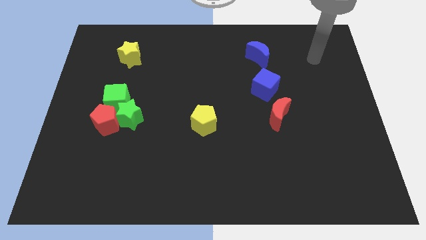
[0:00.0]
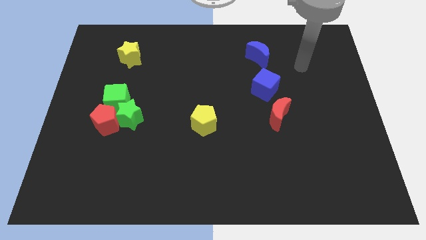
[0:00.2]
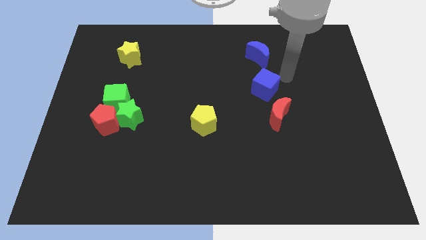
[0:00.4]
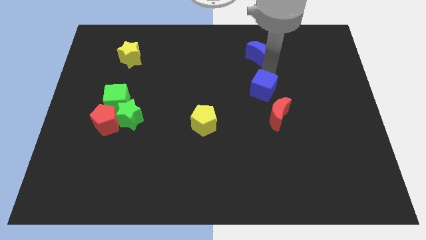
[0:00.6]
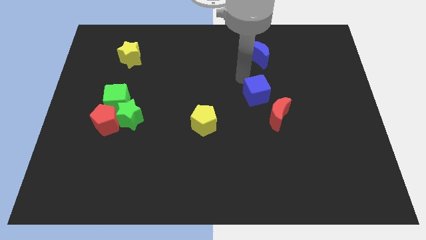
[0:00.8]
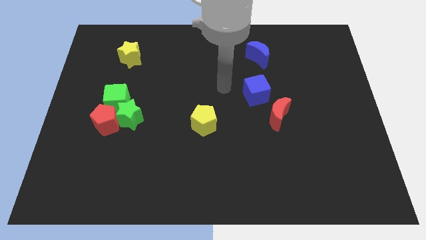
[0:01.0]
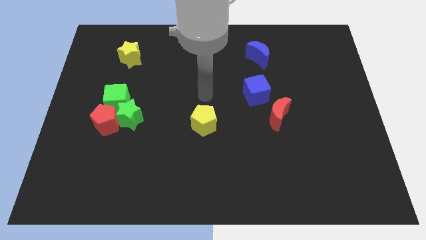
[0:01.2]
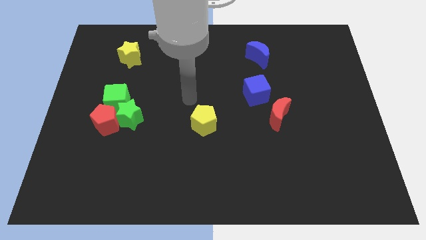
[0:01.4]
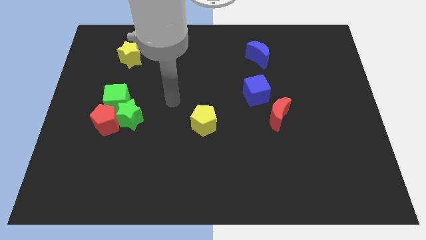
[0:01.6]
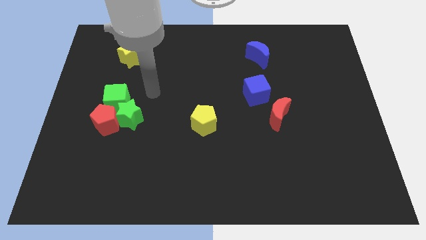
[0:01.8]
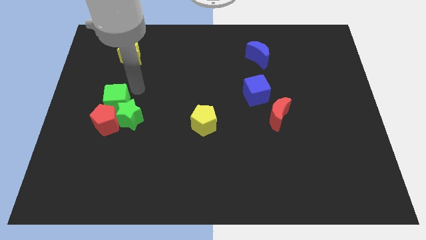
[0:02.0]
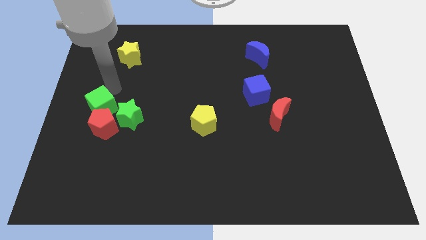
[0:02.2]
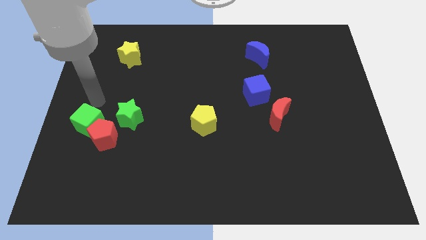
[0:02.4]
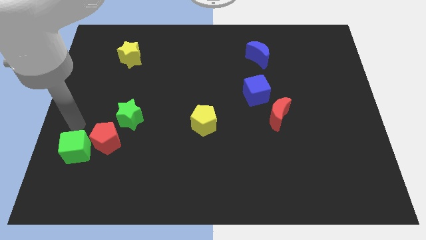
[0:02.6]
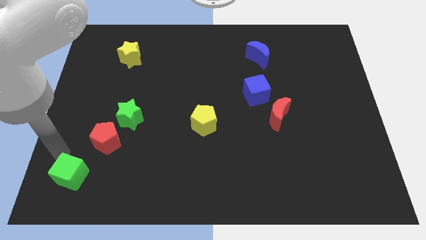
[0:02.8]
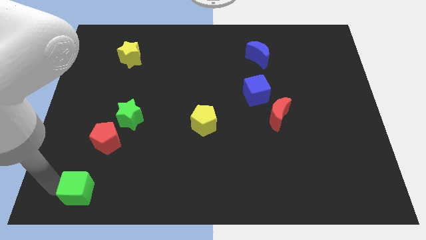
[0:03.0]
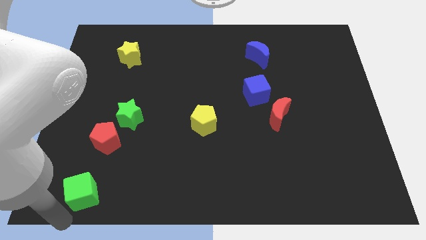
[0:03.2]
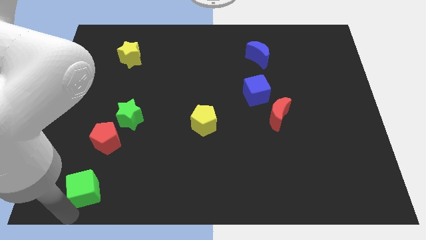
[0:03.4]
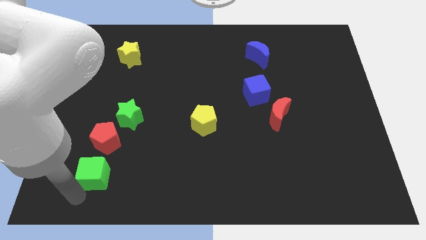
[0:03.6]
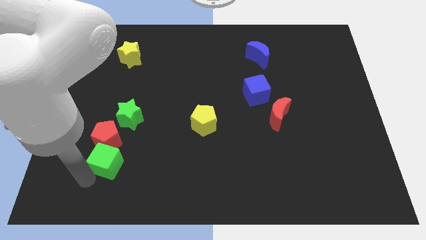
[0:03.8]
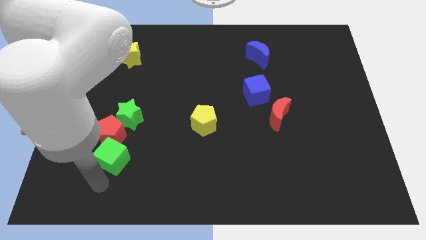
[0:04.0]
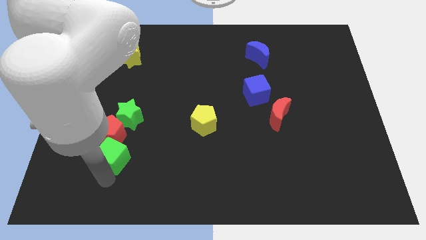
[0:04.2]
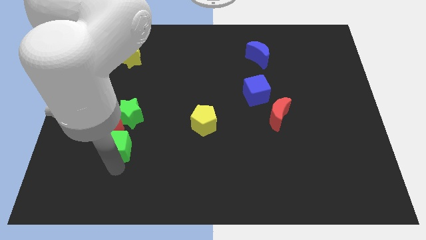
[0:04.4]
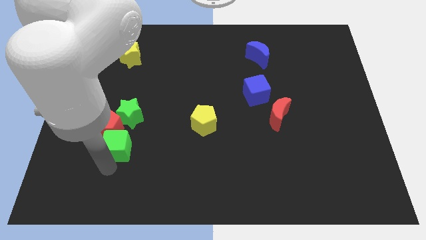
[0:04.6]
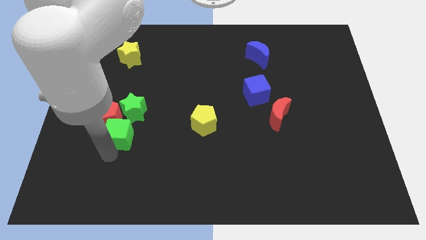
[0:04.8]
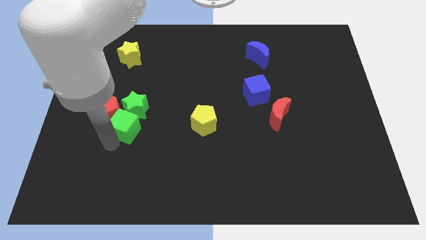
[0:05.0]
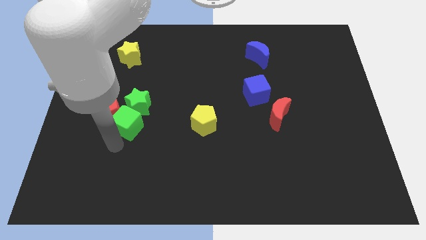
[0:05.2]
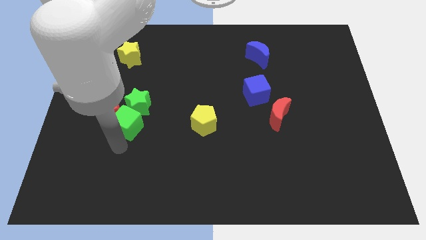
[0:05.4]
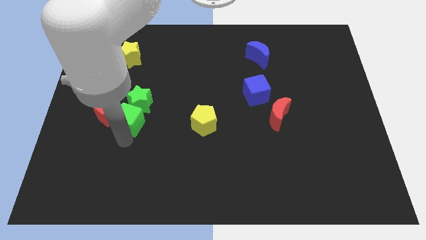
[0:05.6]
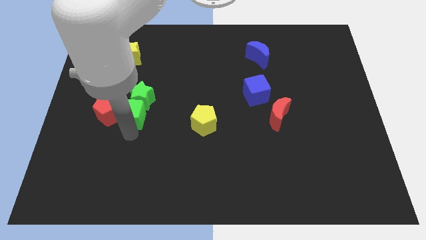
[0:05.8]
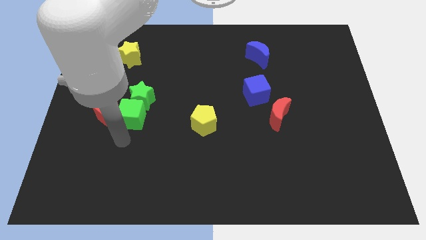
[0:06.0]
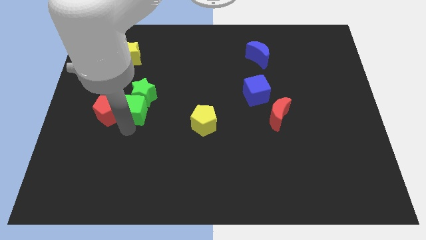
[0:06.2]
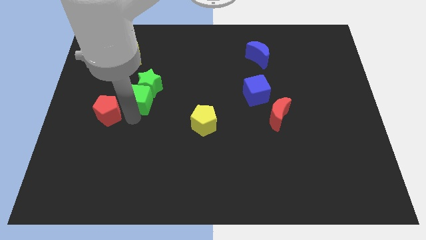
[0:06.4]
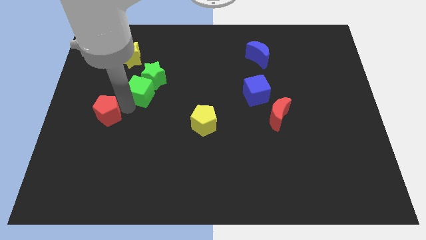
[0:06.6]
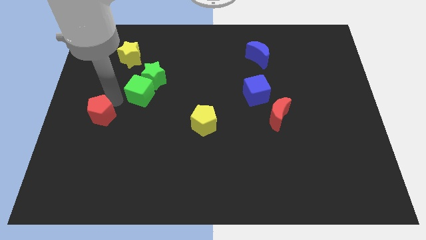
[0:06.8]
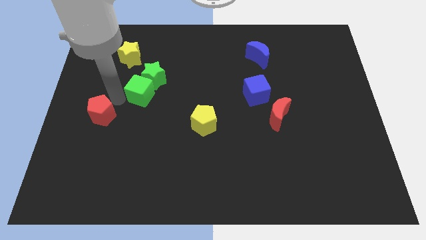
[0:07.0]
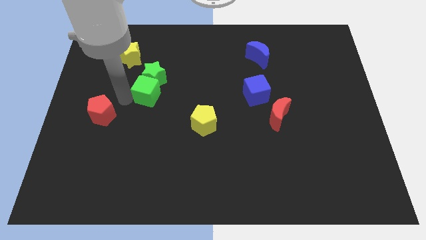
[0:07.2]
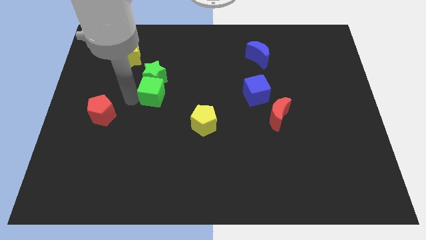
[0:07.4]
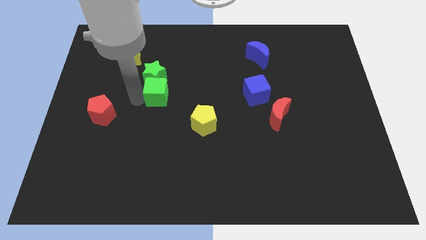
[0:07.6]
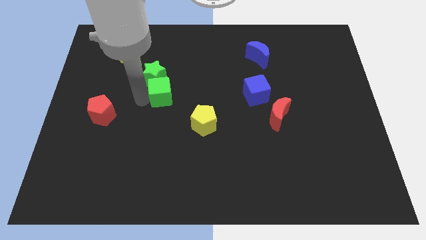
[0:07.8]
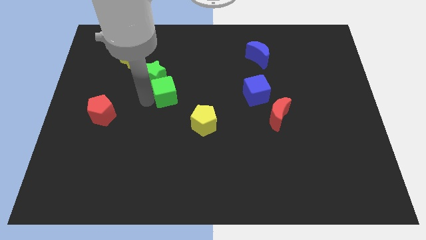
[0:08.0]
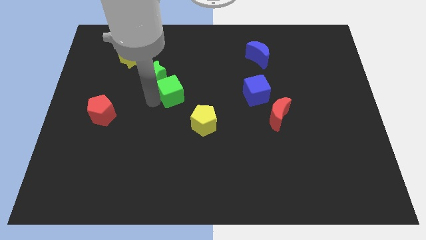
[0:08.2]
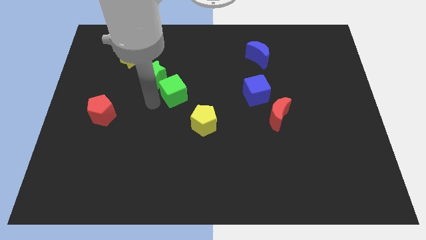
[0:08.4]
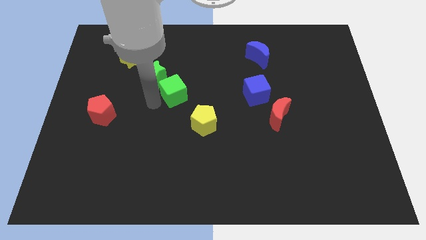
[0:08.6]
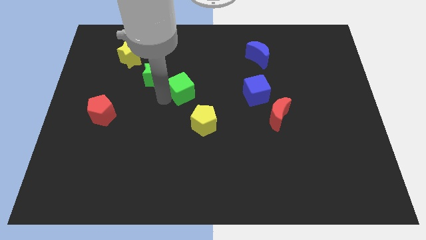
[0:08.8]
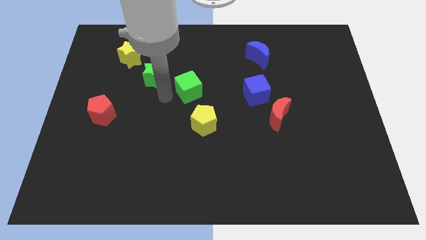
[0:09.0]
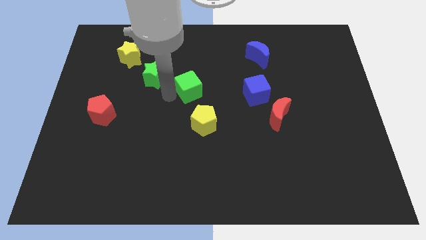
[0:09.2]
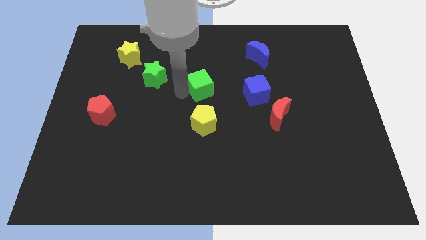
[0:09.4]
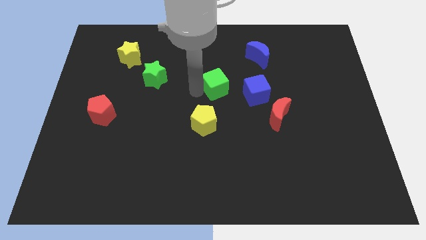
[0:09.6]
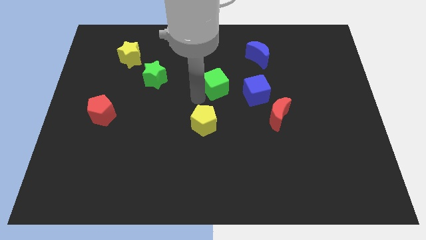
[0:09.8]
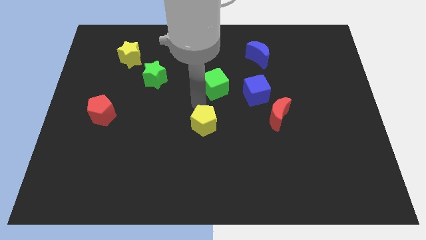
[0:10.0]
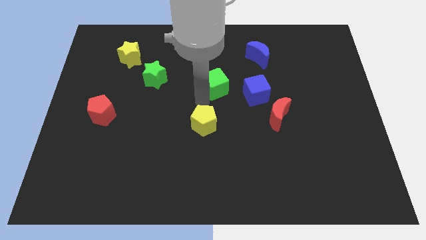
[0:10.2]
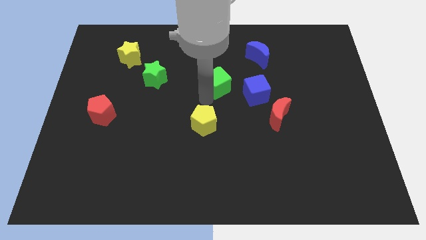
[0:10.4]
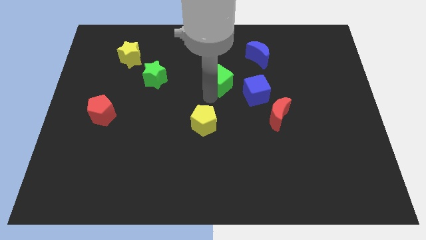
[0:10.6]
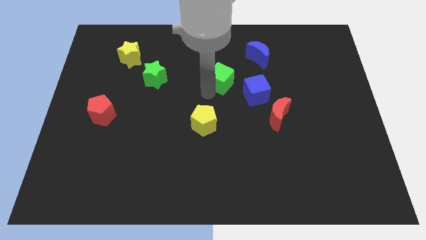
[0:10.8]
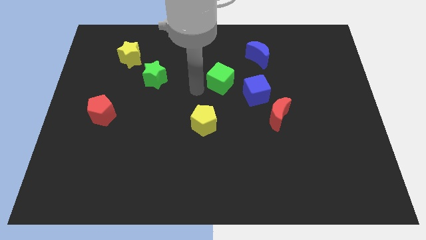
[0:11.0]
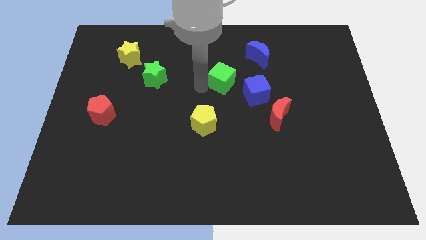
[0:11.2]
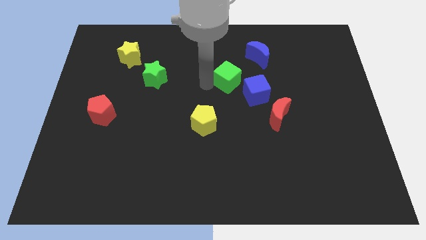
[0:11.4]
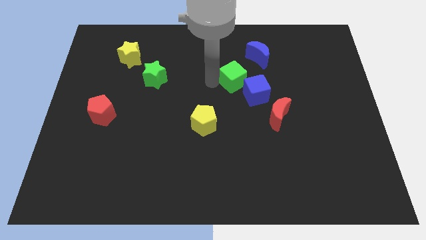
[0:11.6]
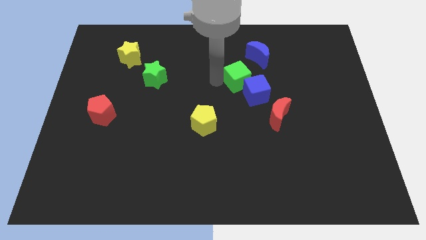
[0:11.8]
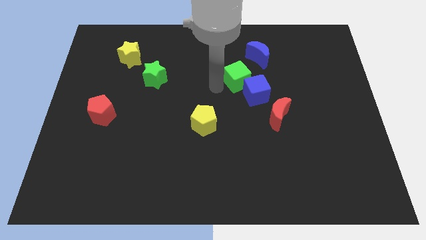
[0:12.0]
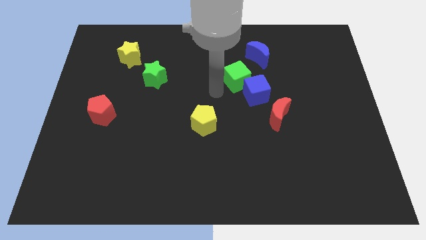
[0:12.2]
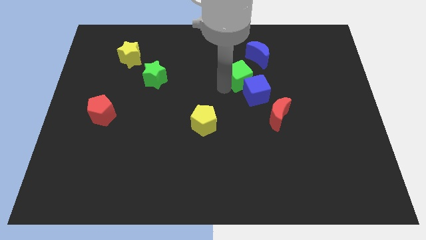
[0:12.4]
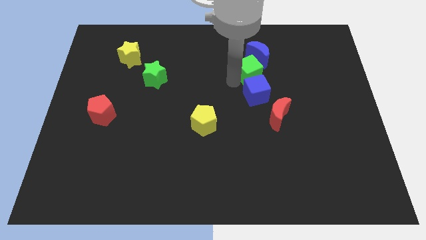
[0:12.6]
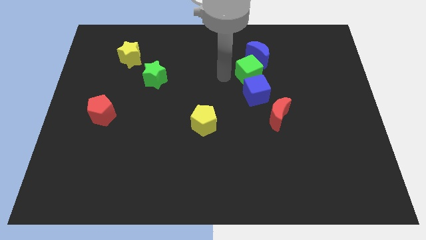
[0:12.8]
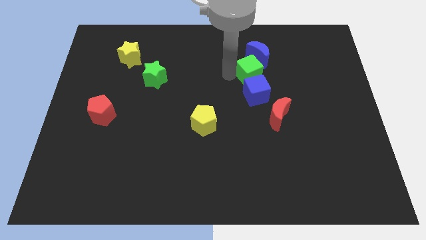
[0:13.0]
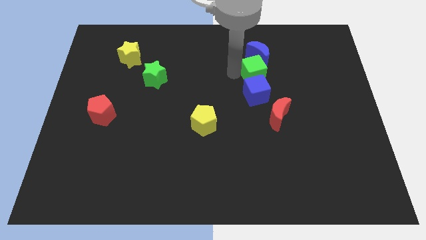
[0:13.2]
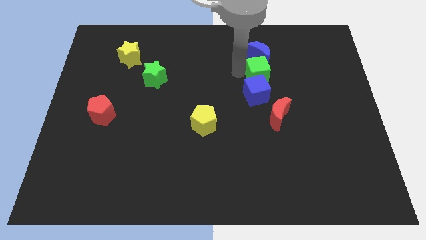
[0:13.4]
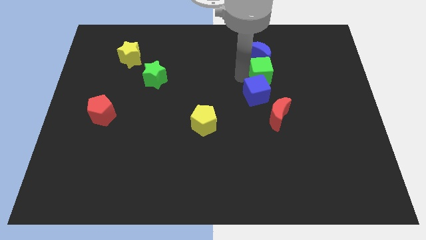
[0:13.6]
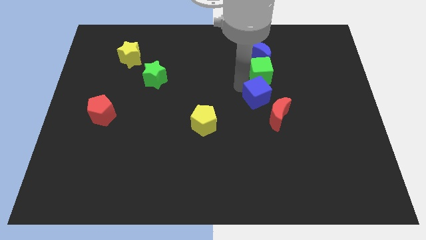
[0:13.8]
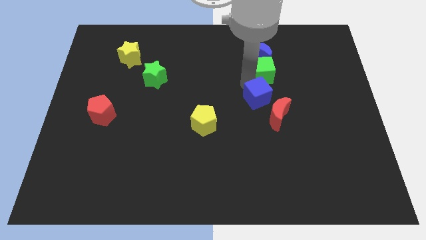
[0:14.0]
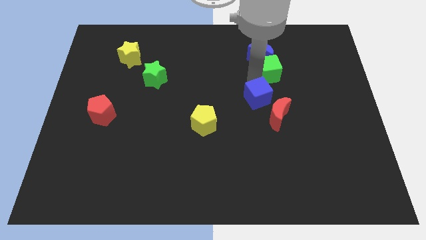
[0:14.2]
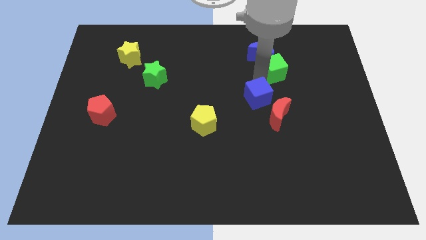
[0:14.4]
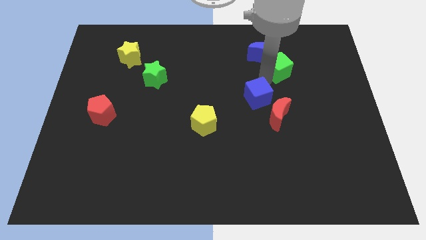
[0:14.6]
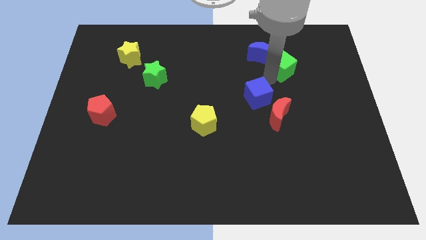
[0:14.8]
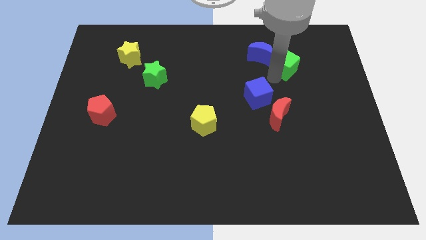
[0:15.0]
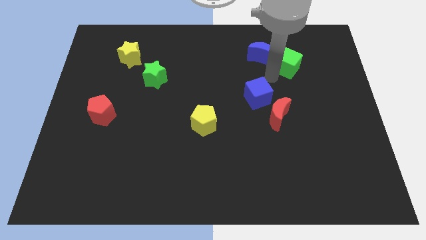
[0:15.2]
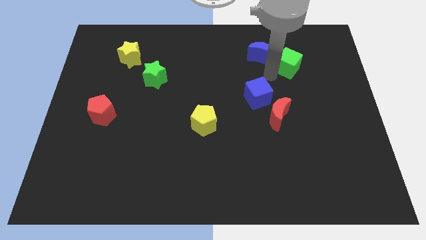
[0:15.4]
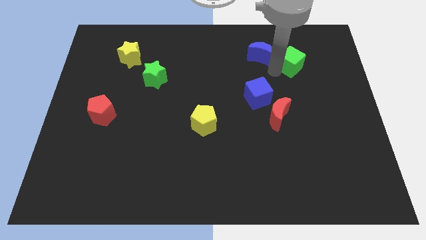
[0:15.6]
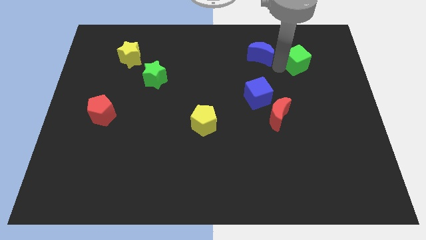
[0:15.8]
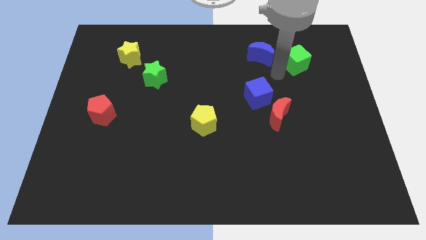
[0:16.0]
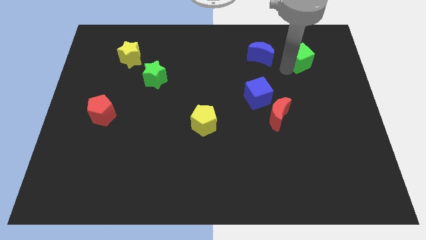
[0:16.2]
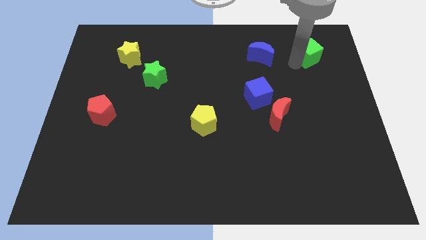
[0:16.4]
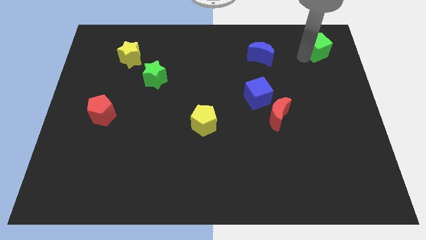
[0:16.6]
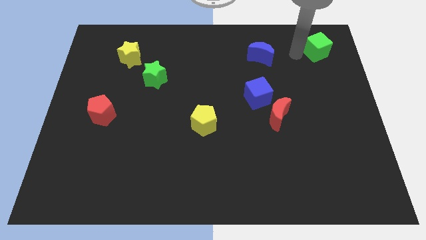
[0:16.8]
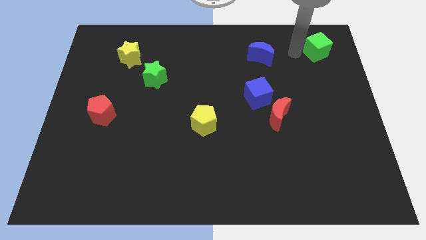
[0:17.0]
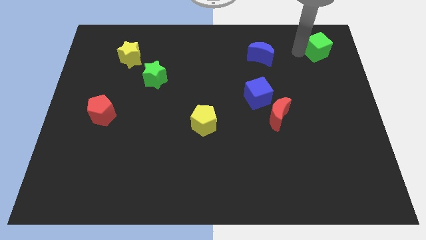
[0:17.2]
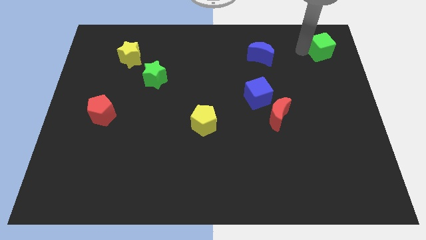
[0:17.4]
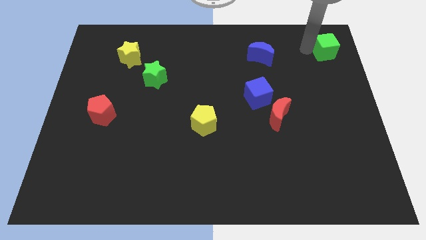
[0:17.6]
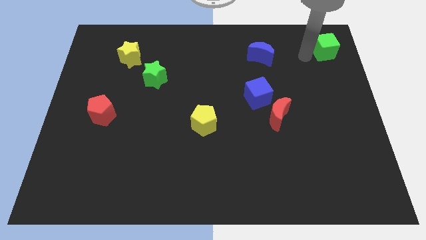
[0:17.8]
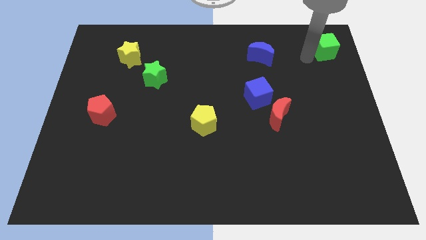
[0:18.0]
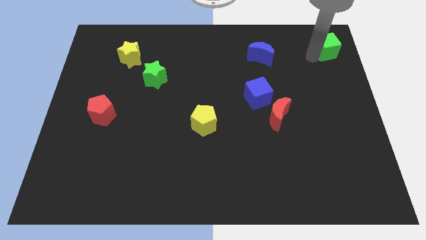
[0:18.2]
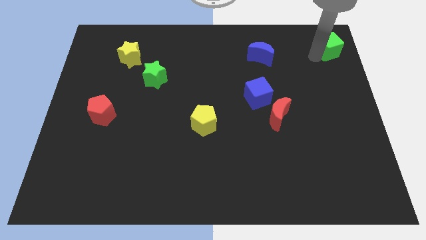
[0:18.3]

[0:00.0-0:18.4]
slide the green cube to the upper right corner
